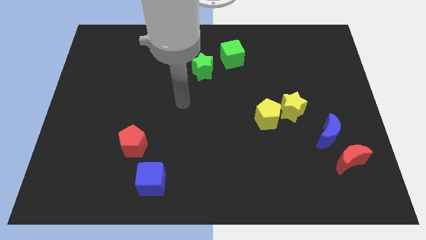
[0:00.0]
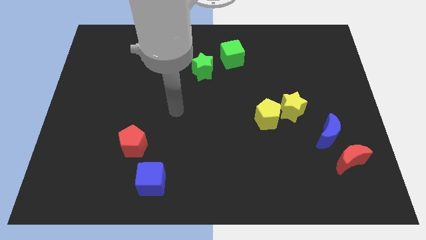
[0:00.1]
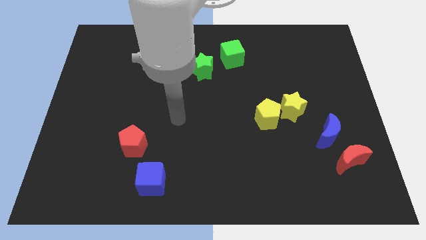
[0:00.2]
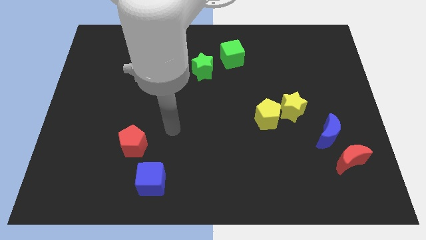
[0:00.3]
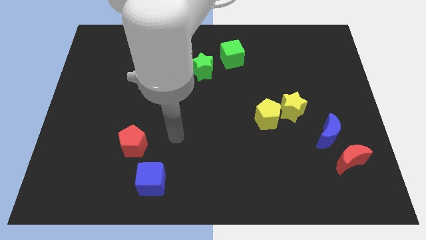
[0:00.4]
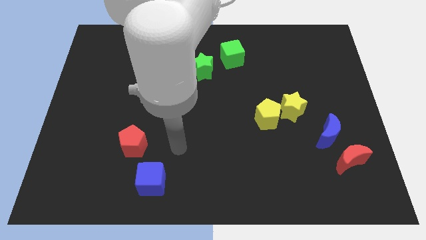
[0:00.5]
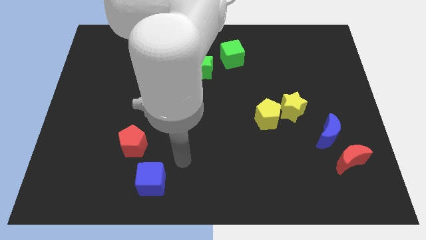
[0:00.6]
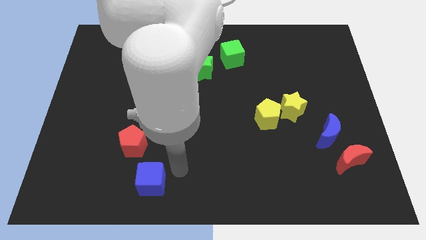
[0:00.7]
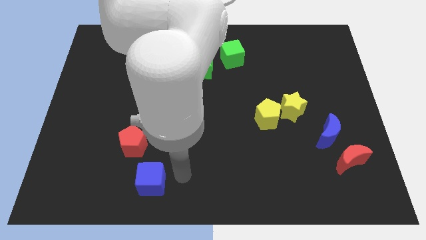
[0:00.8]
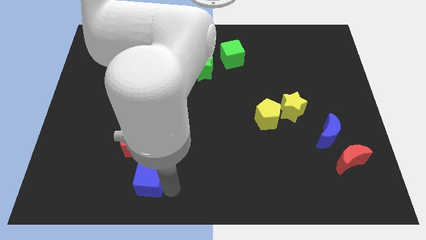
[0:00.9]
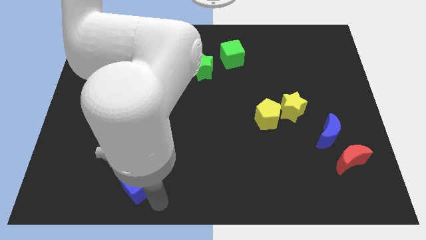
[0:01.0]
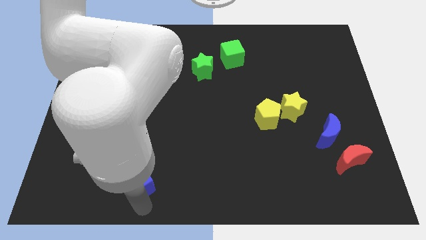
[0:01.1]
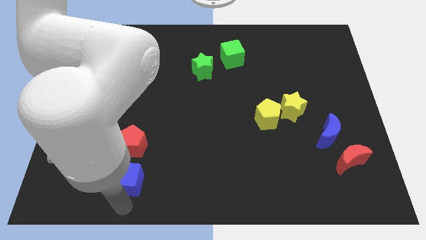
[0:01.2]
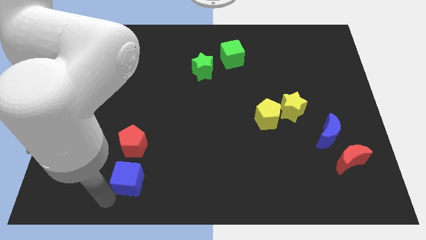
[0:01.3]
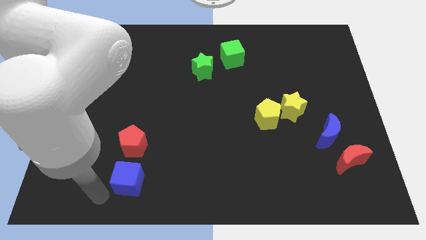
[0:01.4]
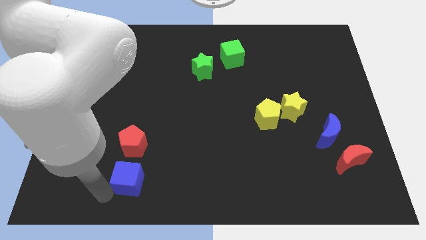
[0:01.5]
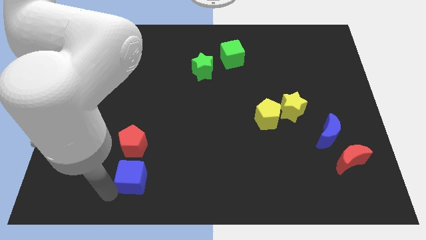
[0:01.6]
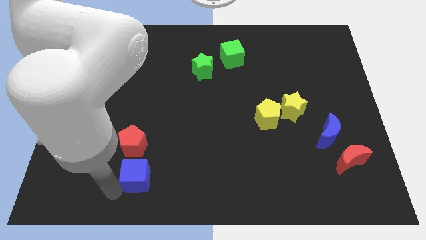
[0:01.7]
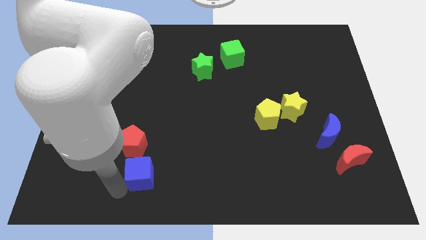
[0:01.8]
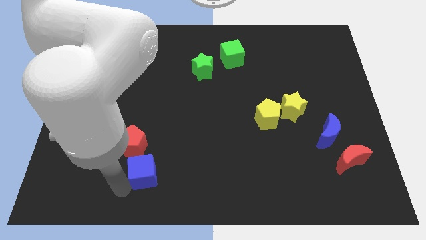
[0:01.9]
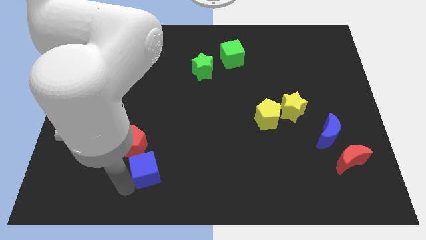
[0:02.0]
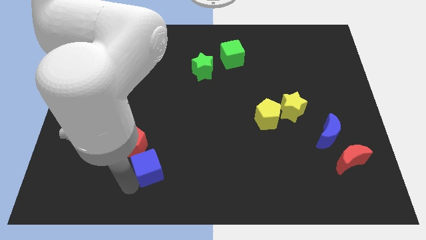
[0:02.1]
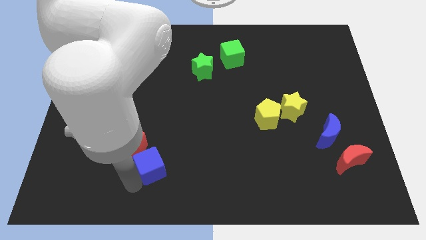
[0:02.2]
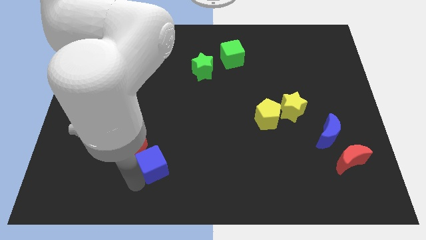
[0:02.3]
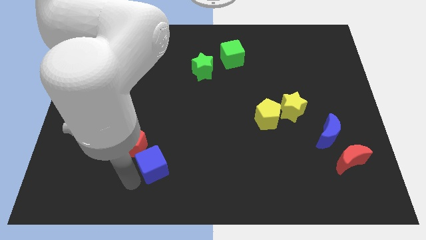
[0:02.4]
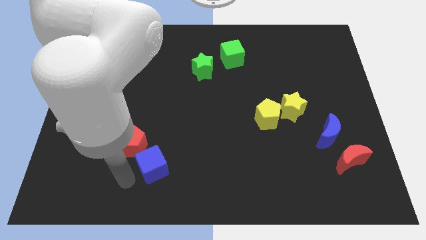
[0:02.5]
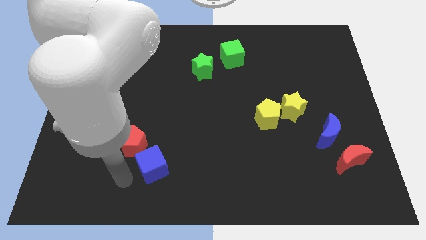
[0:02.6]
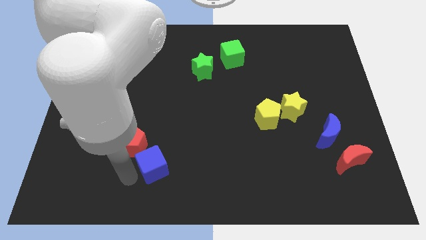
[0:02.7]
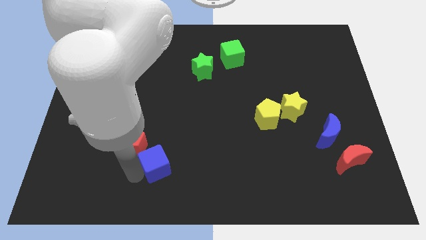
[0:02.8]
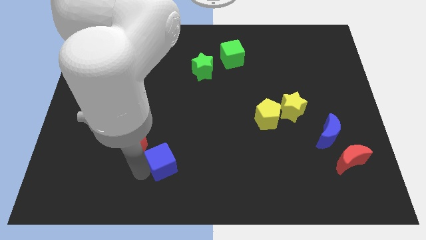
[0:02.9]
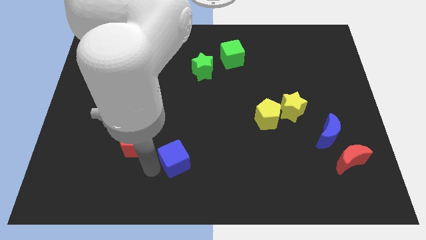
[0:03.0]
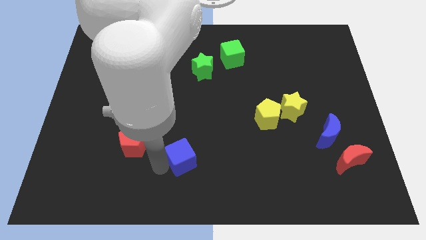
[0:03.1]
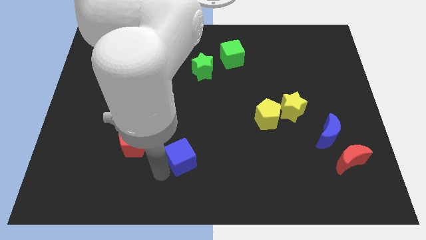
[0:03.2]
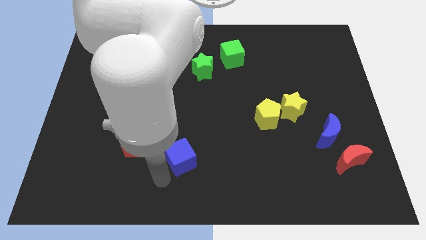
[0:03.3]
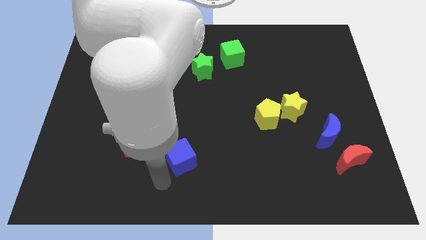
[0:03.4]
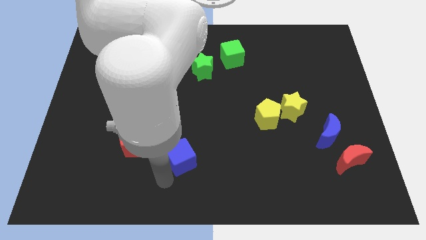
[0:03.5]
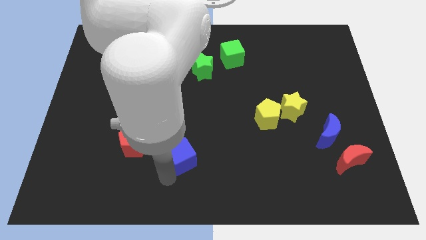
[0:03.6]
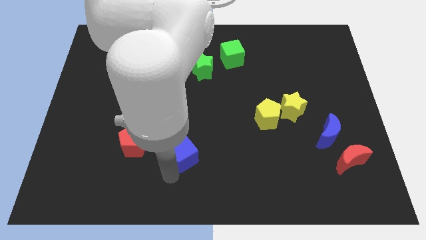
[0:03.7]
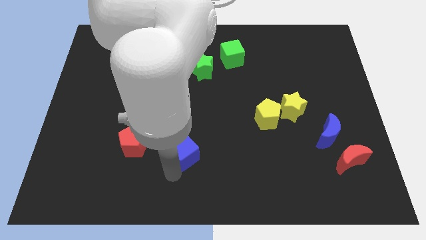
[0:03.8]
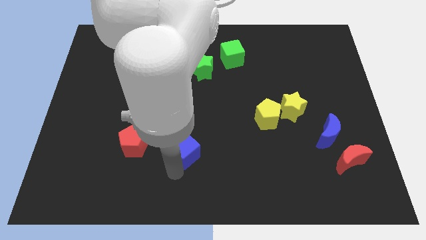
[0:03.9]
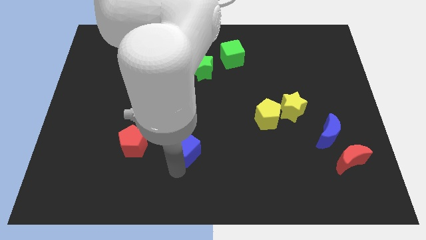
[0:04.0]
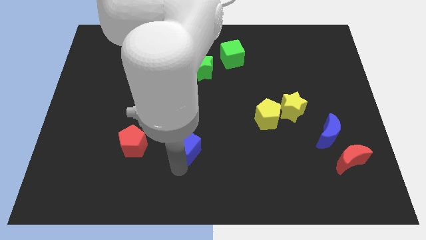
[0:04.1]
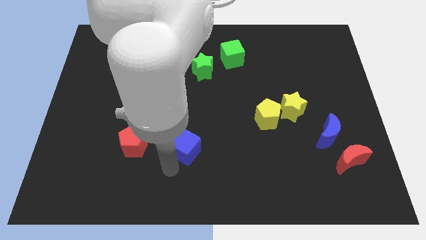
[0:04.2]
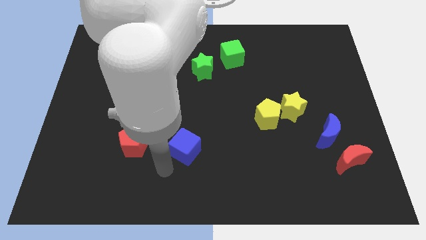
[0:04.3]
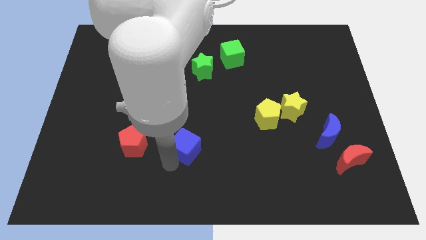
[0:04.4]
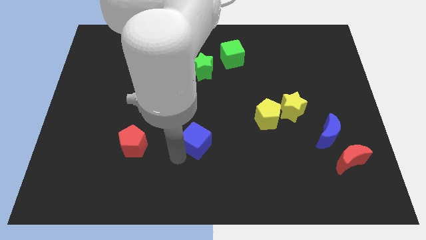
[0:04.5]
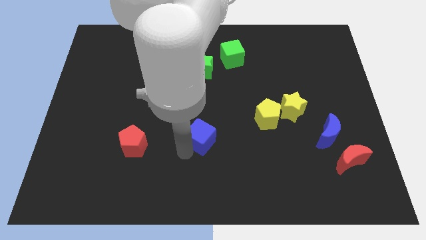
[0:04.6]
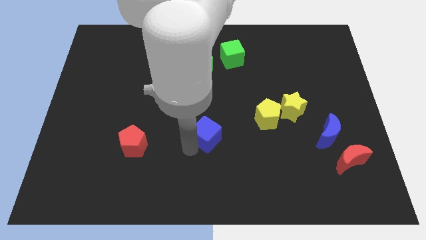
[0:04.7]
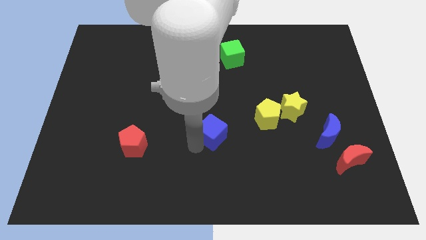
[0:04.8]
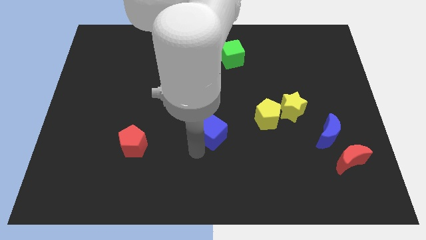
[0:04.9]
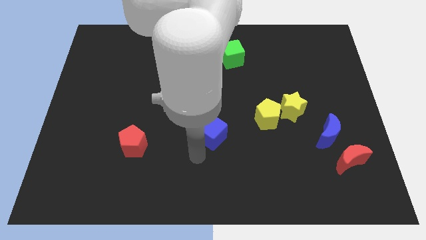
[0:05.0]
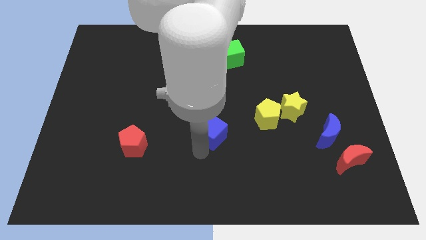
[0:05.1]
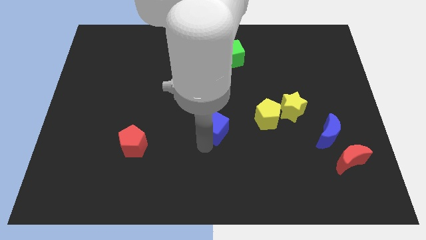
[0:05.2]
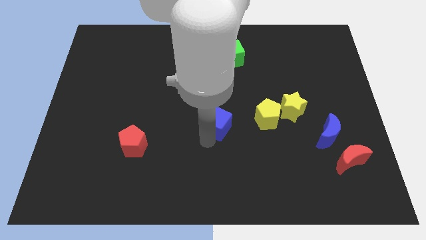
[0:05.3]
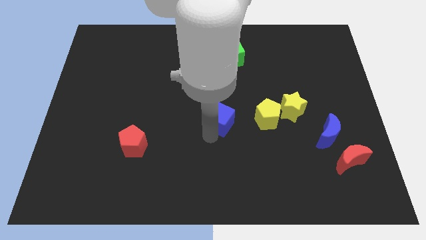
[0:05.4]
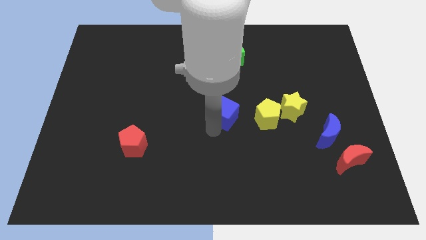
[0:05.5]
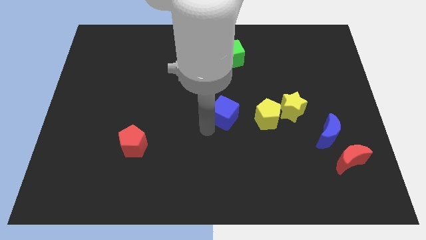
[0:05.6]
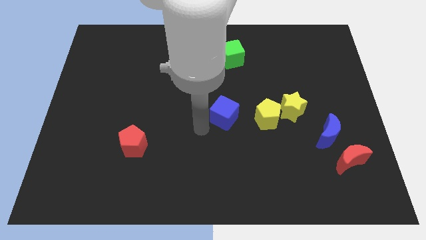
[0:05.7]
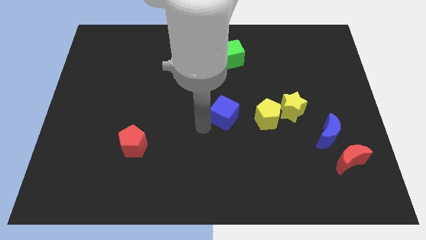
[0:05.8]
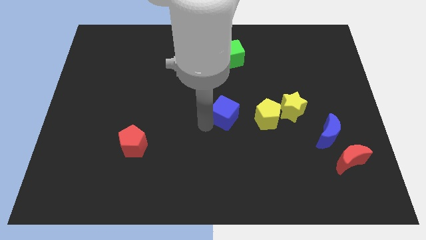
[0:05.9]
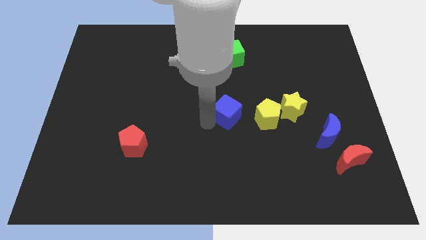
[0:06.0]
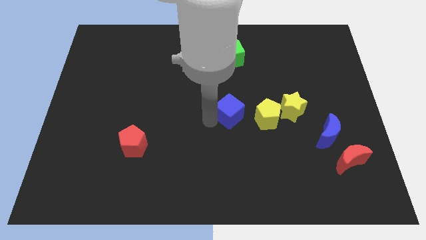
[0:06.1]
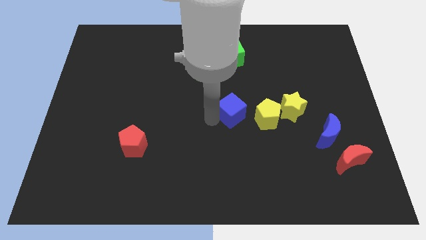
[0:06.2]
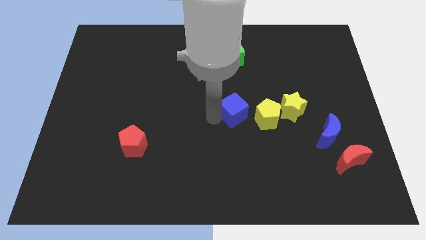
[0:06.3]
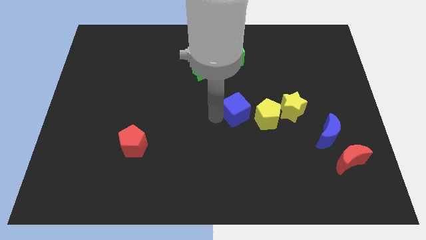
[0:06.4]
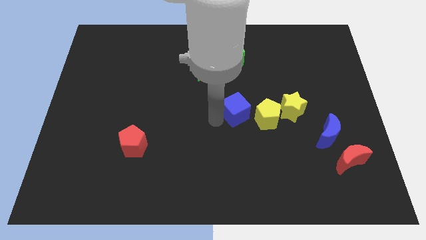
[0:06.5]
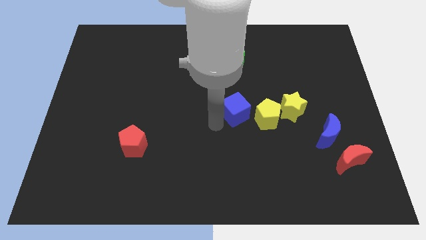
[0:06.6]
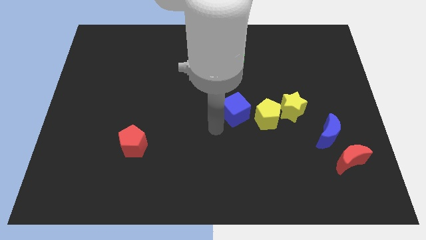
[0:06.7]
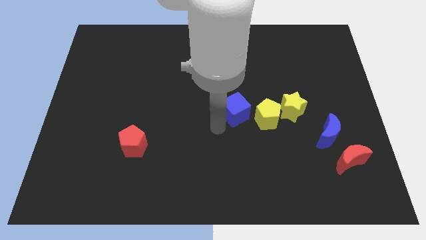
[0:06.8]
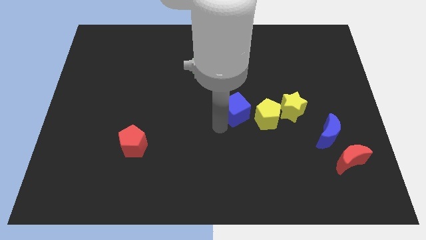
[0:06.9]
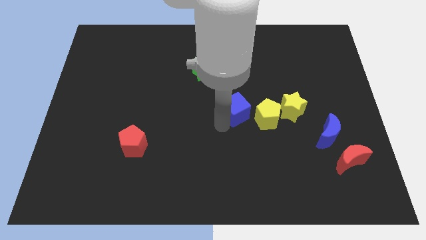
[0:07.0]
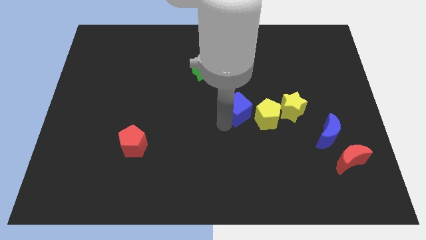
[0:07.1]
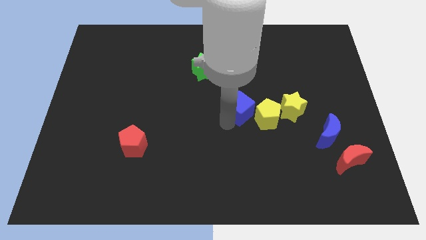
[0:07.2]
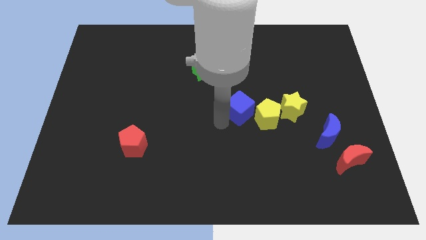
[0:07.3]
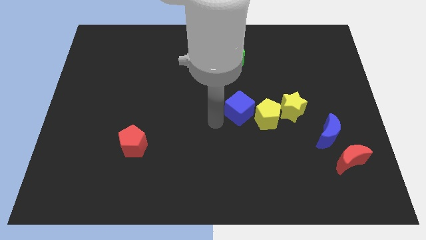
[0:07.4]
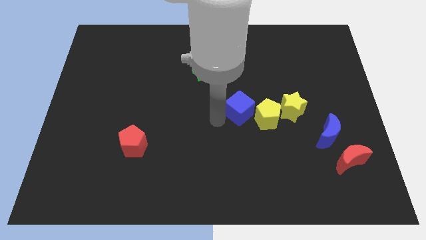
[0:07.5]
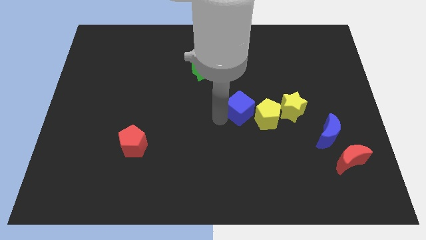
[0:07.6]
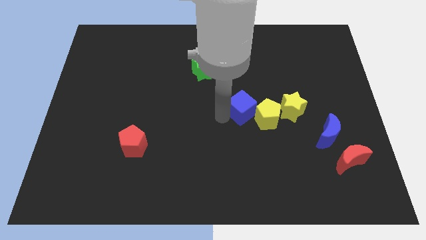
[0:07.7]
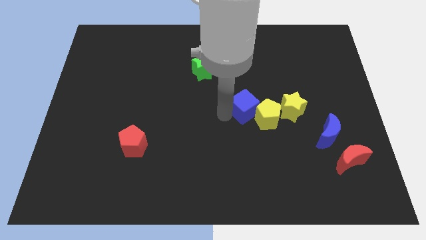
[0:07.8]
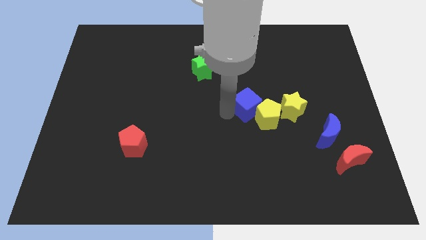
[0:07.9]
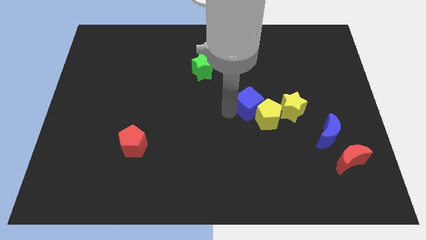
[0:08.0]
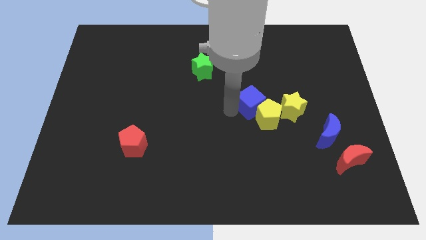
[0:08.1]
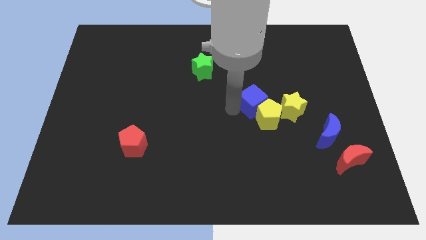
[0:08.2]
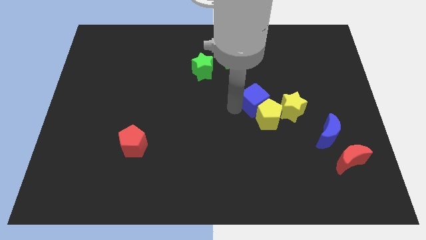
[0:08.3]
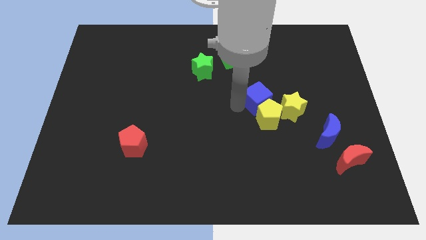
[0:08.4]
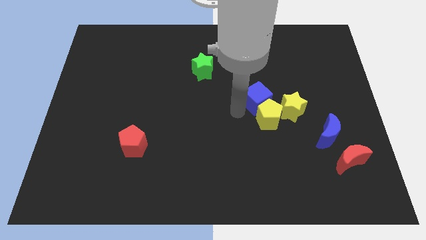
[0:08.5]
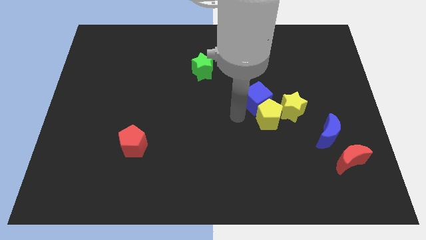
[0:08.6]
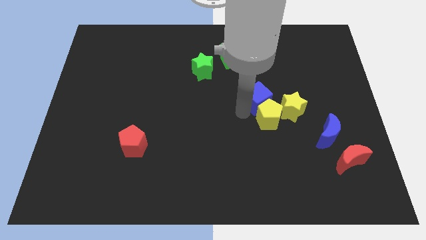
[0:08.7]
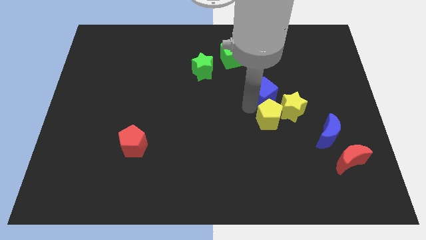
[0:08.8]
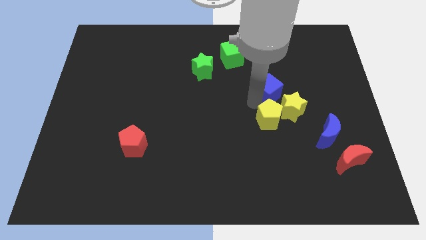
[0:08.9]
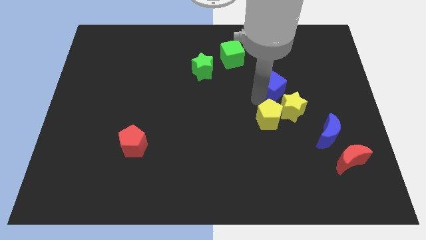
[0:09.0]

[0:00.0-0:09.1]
put the blue cube to the top side of the yellow star
